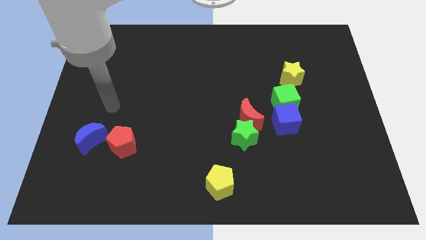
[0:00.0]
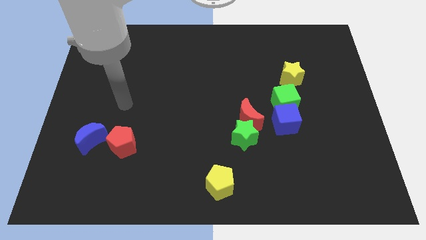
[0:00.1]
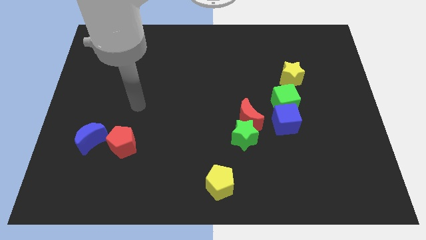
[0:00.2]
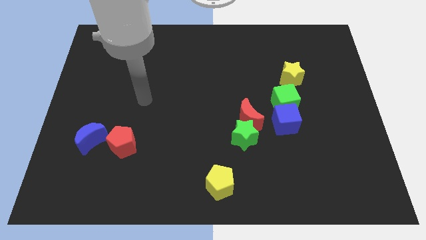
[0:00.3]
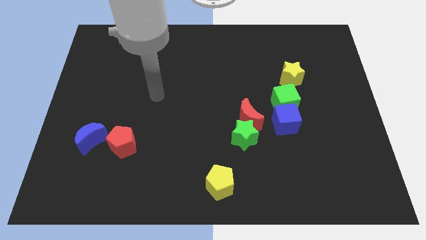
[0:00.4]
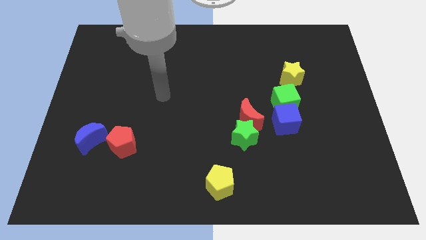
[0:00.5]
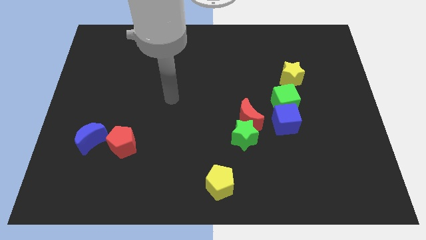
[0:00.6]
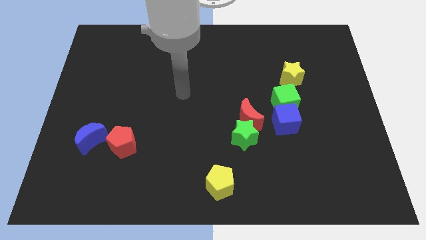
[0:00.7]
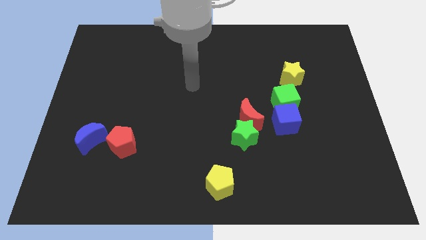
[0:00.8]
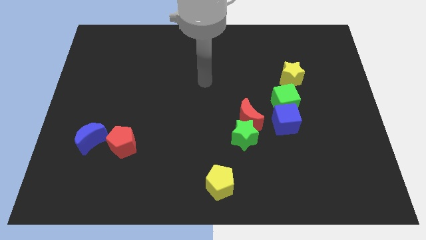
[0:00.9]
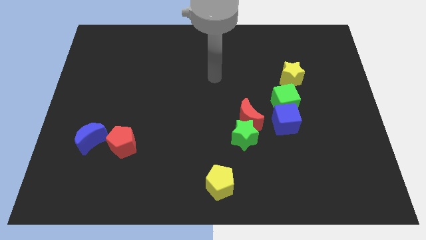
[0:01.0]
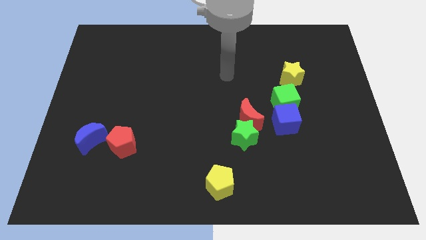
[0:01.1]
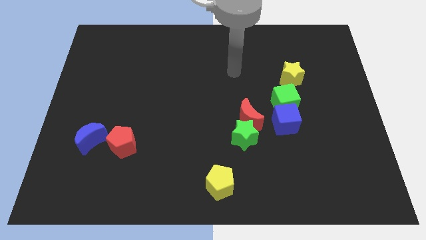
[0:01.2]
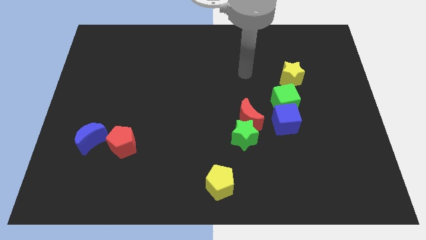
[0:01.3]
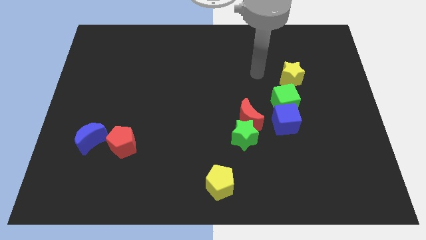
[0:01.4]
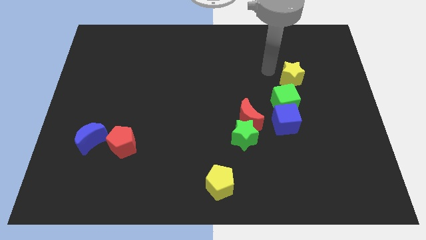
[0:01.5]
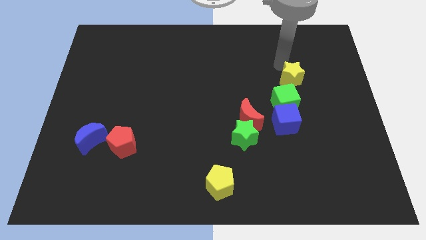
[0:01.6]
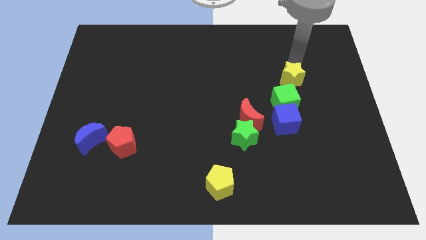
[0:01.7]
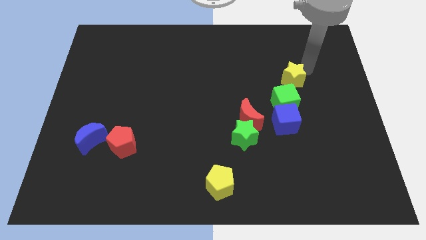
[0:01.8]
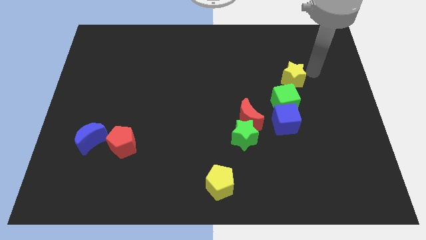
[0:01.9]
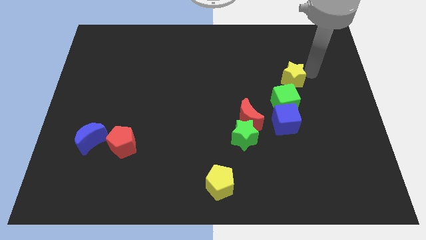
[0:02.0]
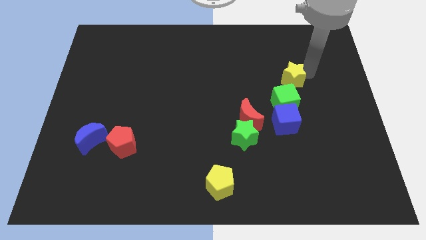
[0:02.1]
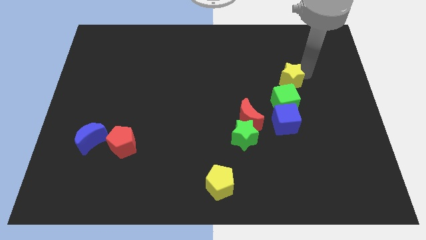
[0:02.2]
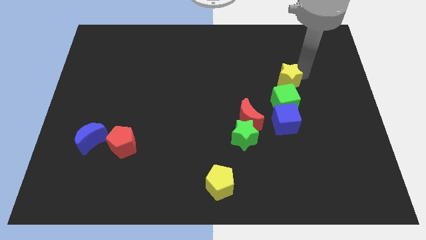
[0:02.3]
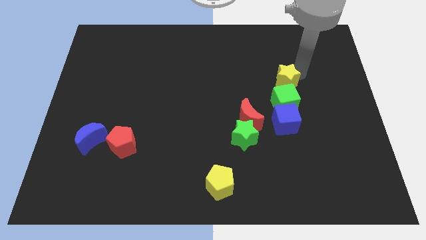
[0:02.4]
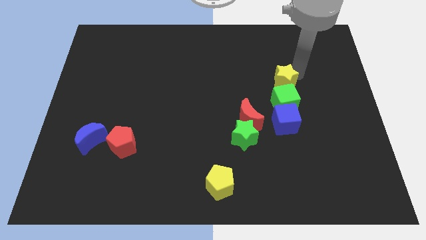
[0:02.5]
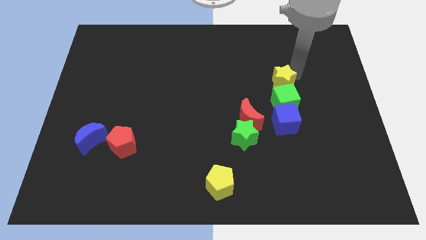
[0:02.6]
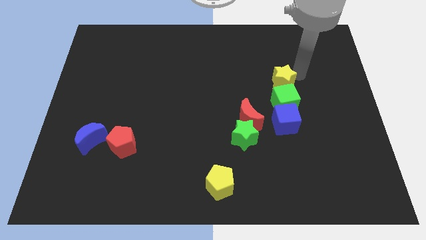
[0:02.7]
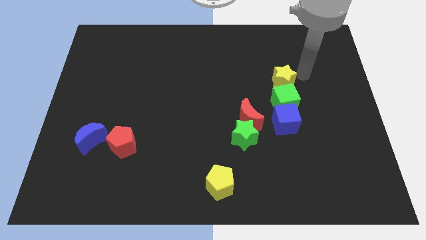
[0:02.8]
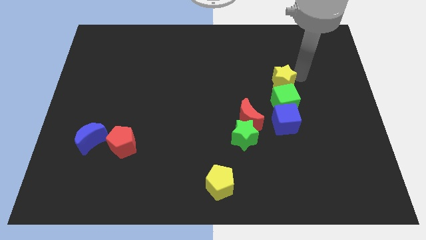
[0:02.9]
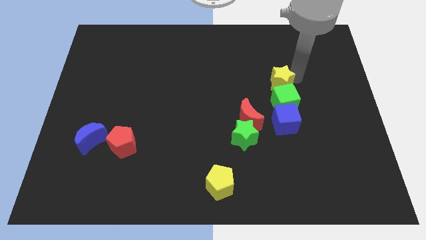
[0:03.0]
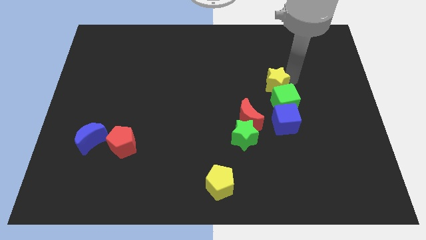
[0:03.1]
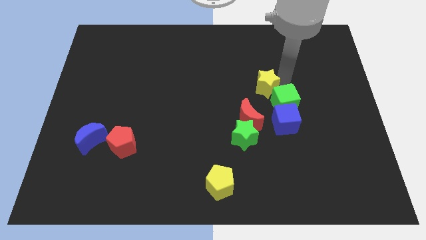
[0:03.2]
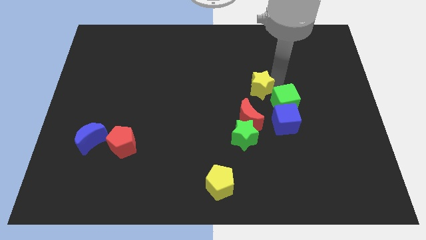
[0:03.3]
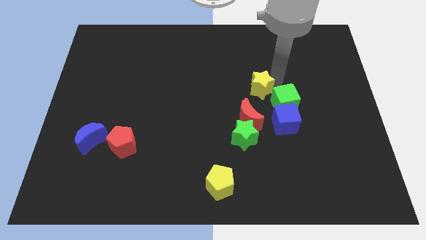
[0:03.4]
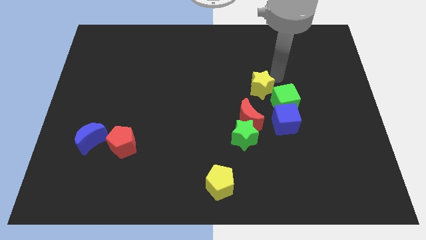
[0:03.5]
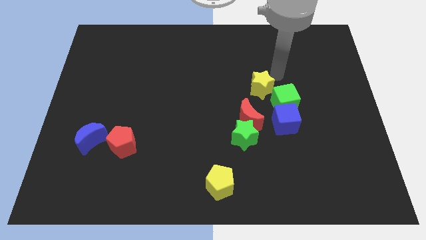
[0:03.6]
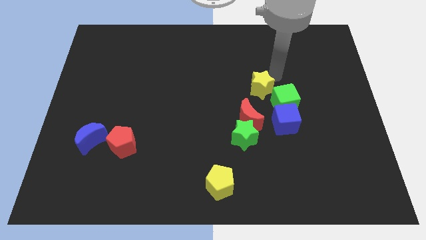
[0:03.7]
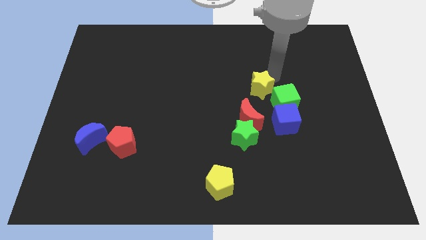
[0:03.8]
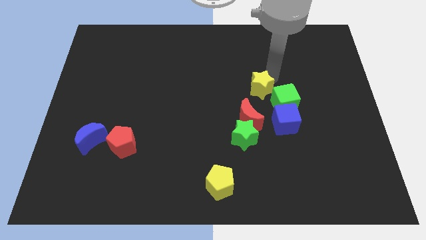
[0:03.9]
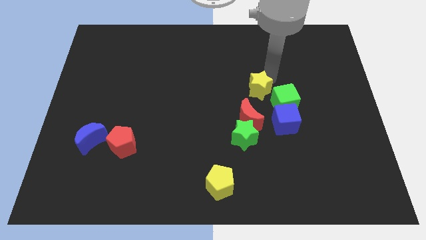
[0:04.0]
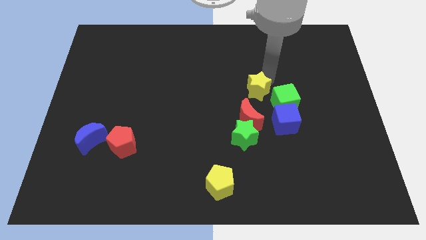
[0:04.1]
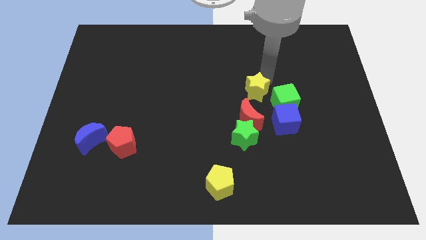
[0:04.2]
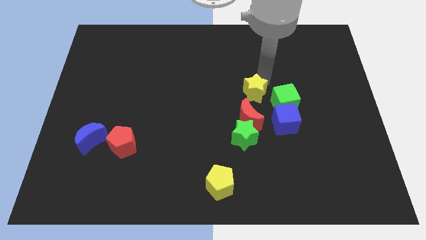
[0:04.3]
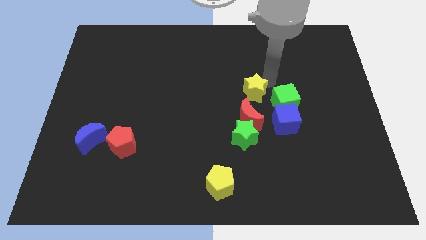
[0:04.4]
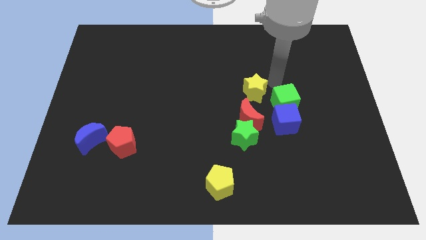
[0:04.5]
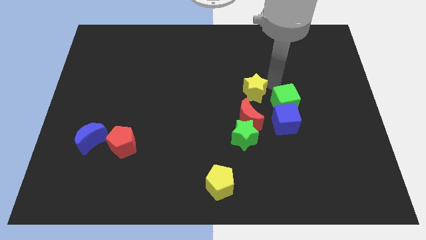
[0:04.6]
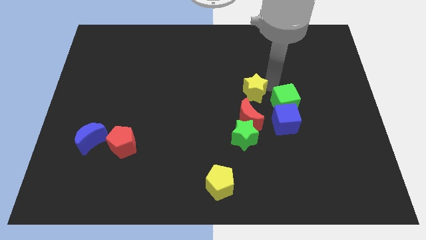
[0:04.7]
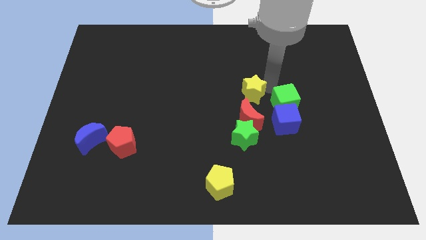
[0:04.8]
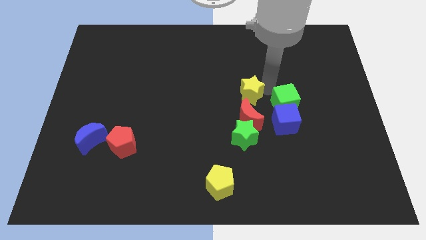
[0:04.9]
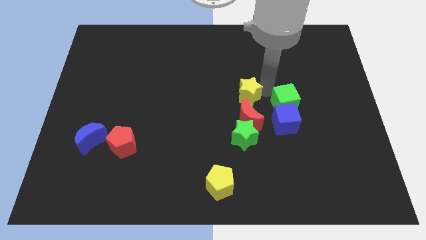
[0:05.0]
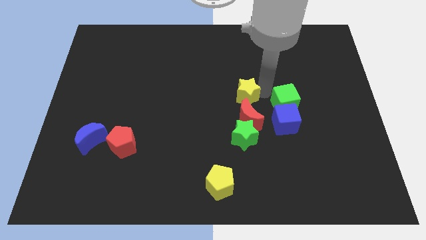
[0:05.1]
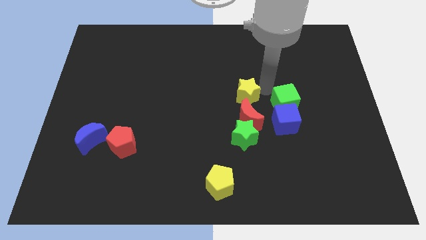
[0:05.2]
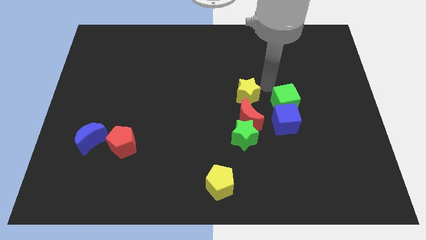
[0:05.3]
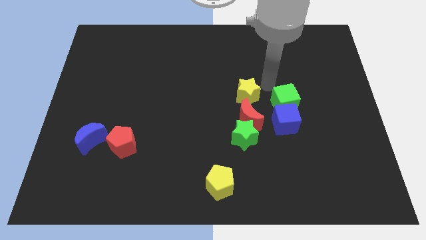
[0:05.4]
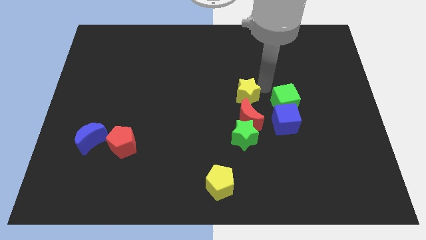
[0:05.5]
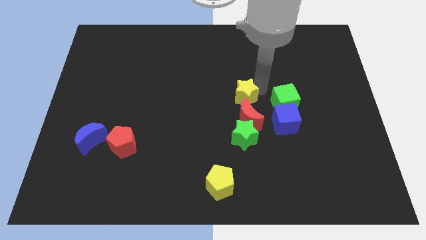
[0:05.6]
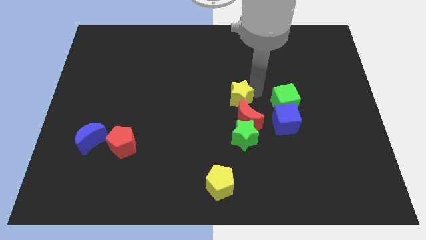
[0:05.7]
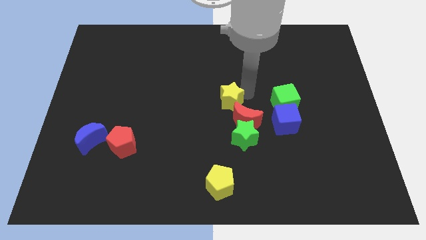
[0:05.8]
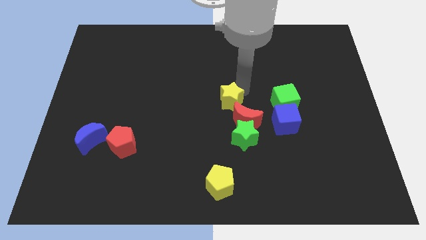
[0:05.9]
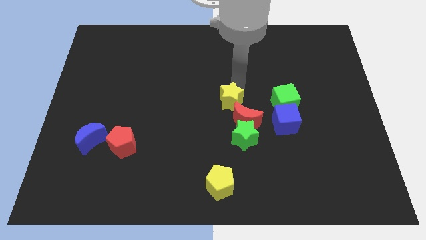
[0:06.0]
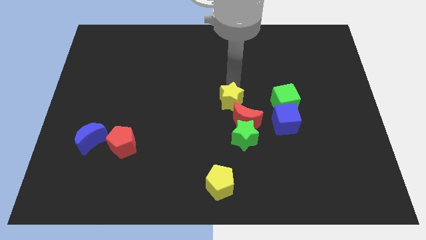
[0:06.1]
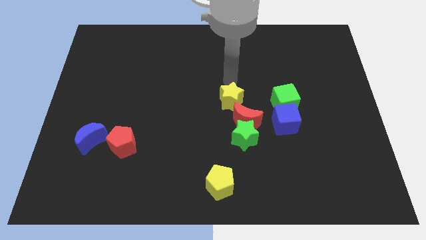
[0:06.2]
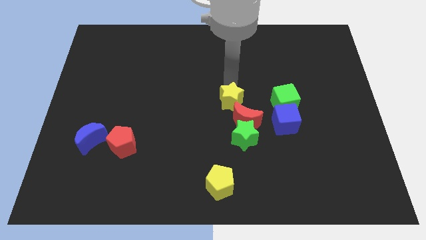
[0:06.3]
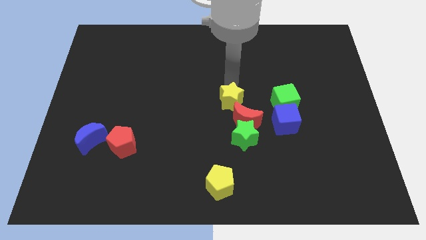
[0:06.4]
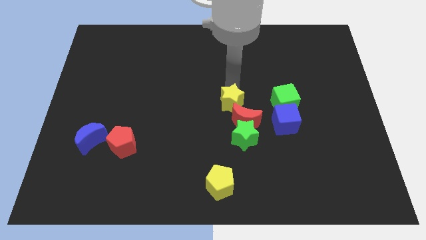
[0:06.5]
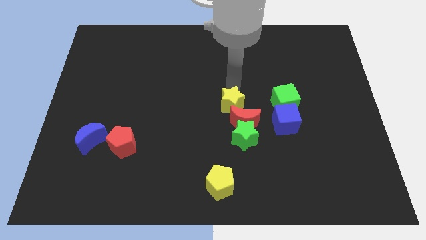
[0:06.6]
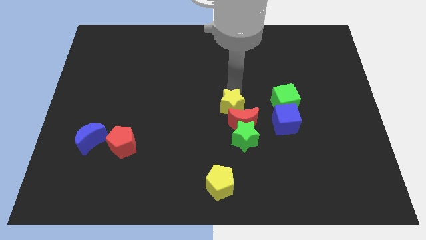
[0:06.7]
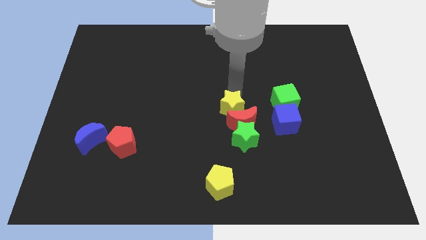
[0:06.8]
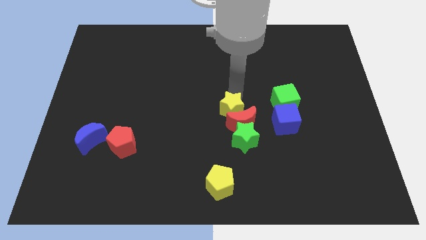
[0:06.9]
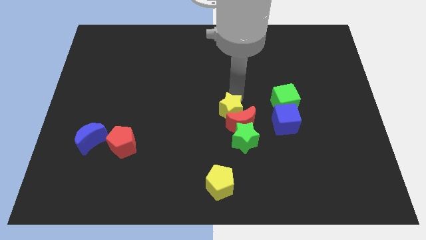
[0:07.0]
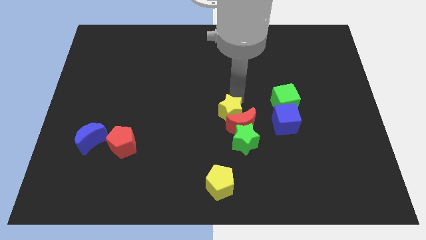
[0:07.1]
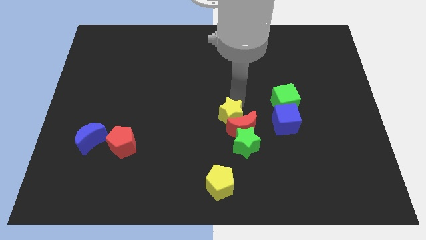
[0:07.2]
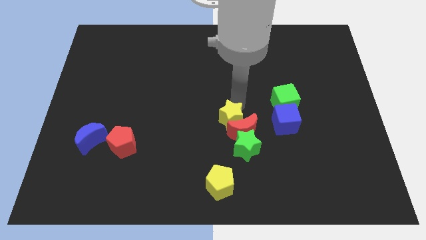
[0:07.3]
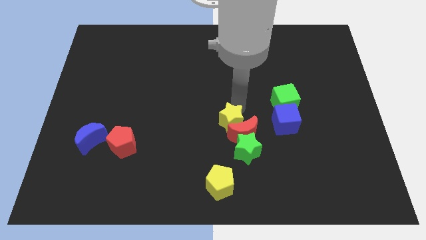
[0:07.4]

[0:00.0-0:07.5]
put the yellow star above the yellow pentagon
